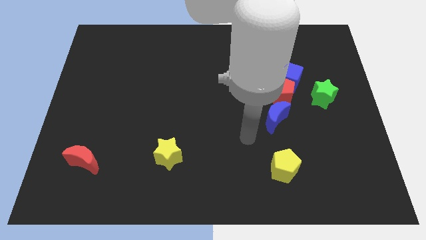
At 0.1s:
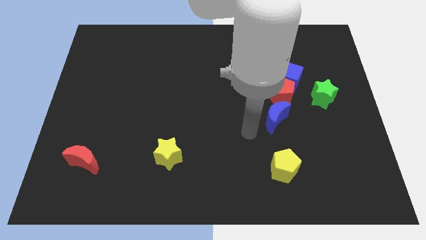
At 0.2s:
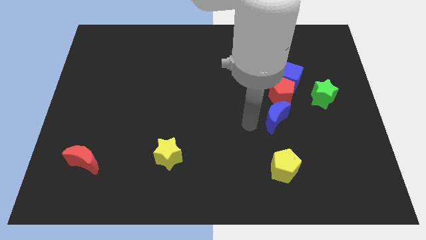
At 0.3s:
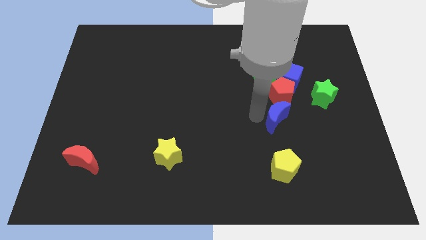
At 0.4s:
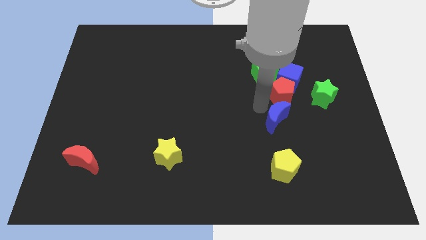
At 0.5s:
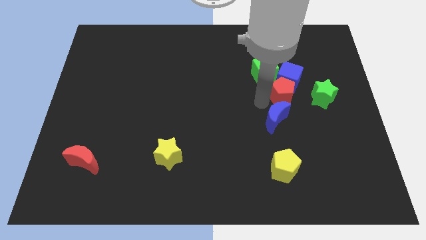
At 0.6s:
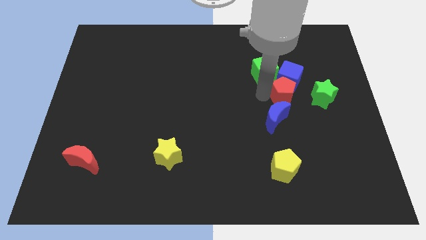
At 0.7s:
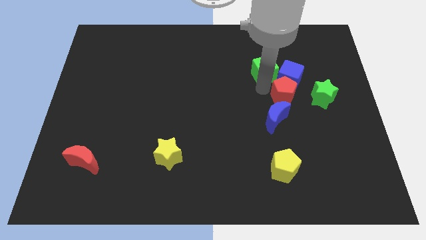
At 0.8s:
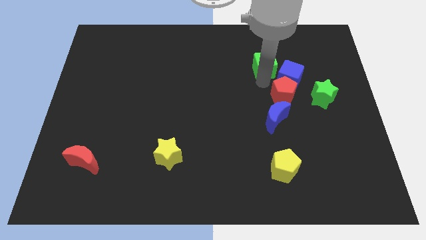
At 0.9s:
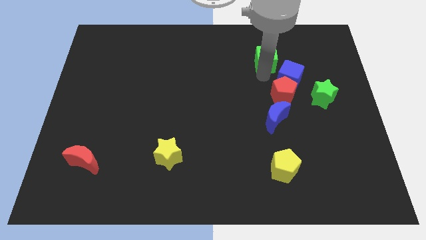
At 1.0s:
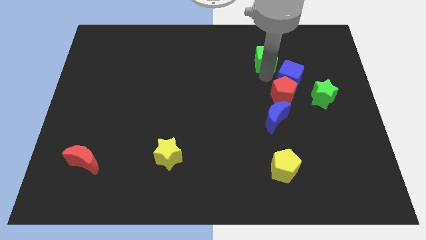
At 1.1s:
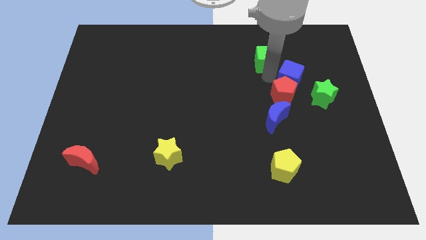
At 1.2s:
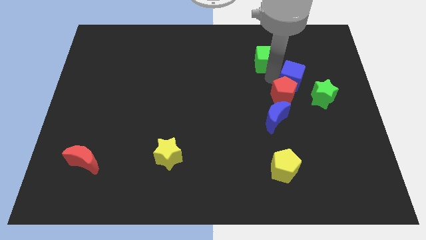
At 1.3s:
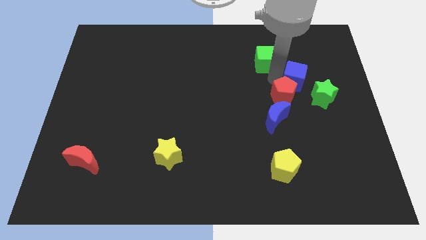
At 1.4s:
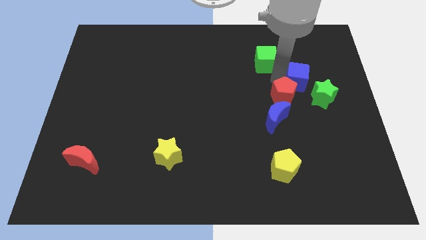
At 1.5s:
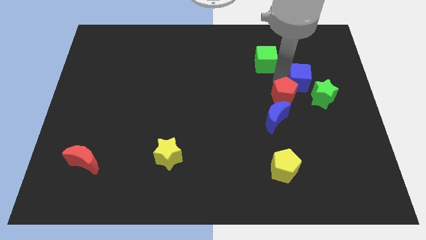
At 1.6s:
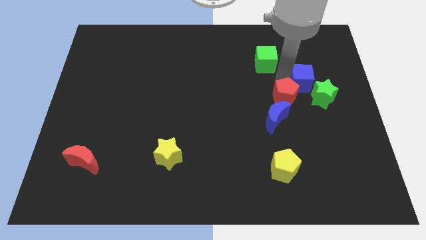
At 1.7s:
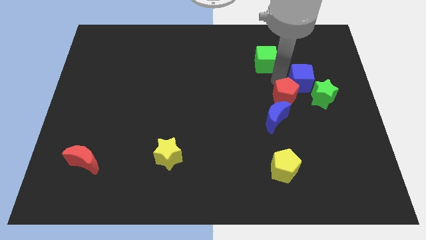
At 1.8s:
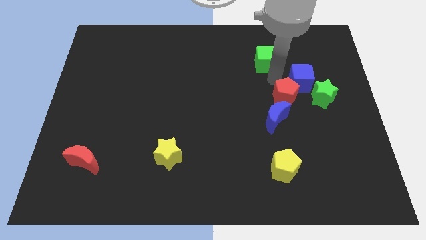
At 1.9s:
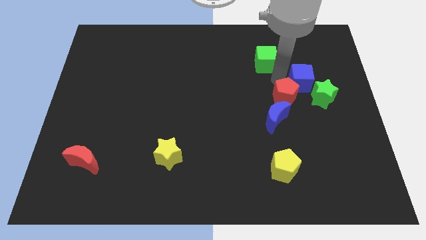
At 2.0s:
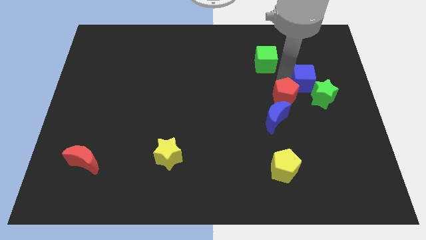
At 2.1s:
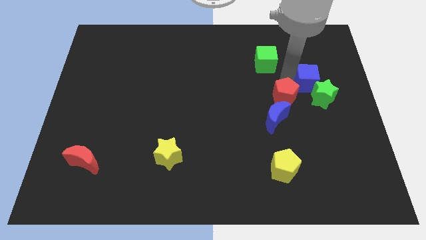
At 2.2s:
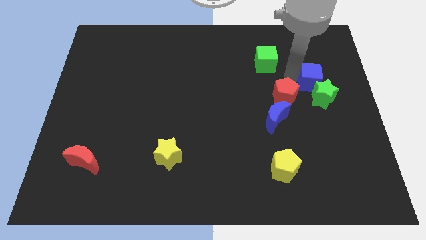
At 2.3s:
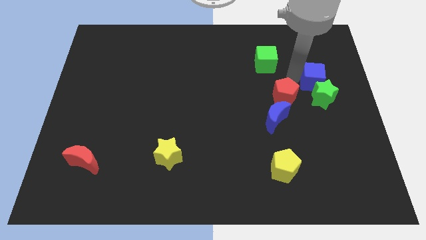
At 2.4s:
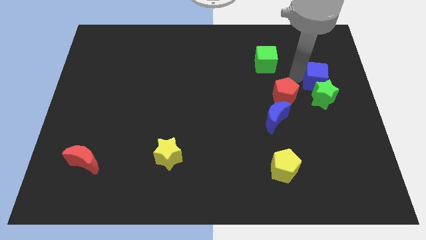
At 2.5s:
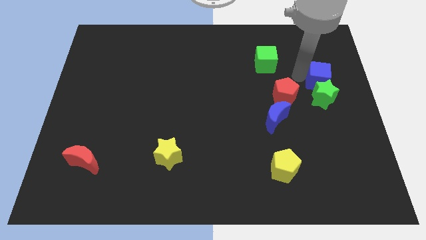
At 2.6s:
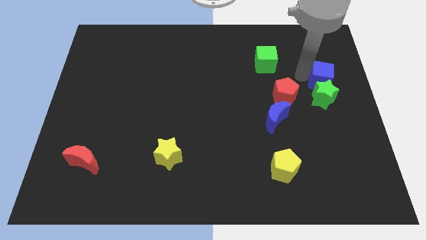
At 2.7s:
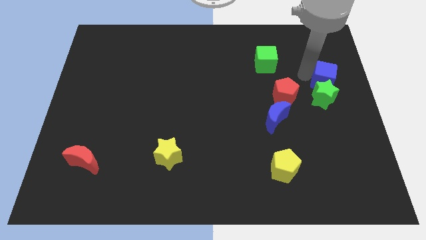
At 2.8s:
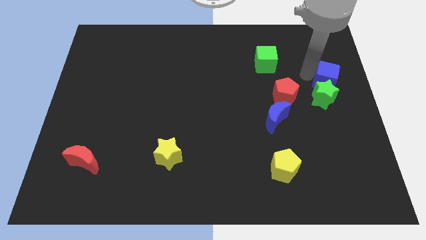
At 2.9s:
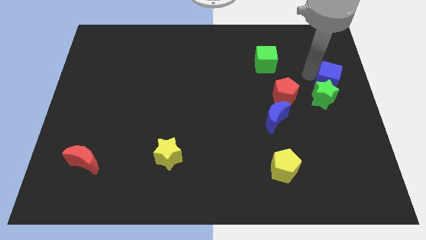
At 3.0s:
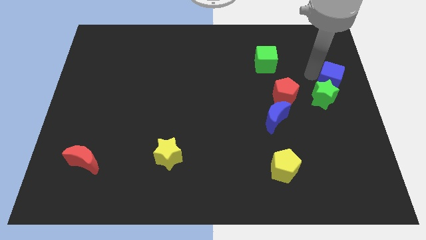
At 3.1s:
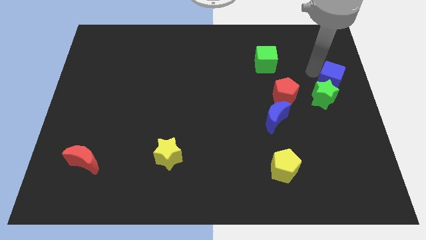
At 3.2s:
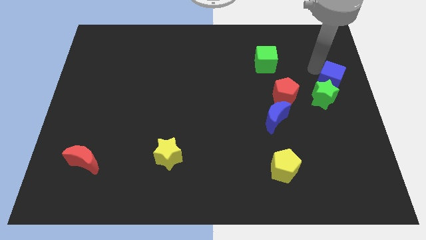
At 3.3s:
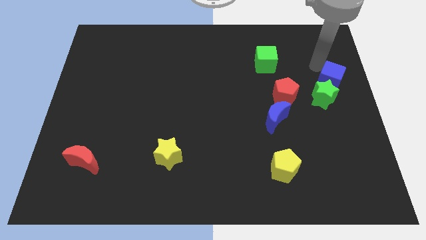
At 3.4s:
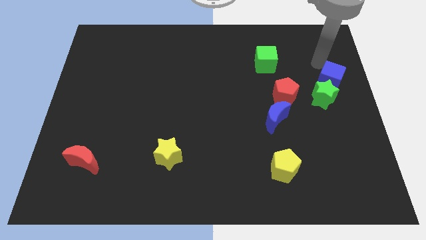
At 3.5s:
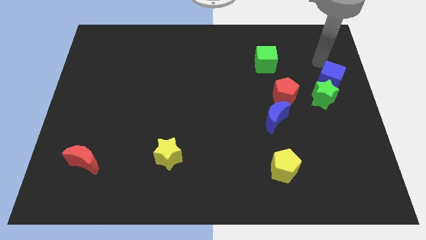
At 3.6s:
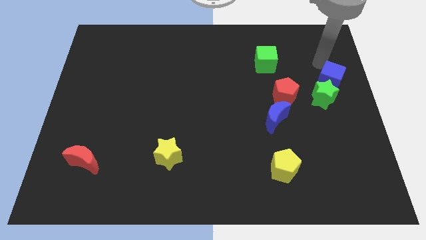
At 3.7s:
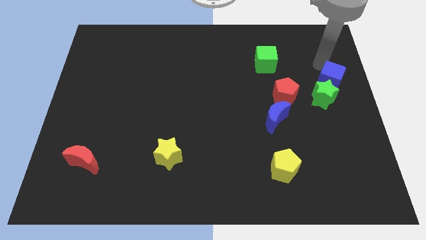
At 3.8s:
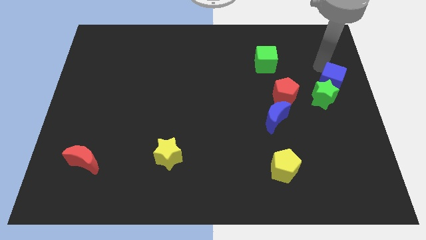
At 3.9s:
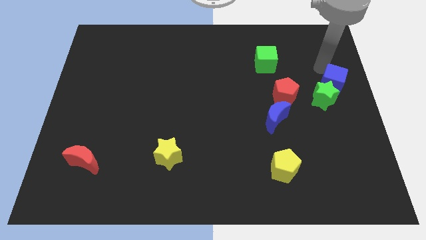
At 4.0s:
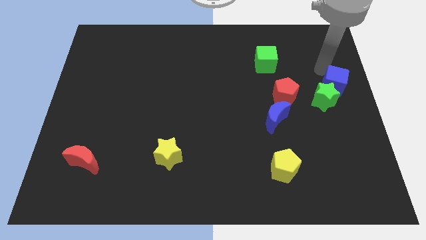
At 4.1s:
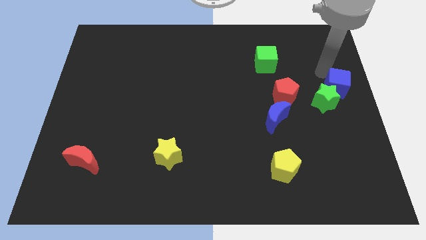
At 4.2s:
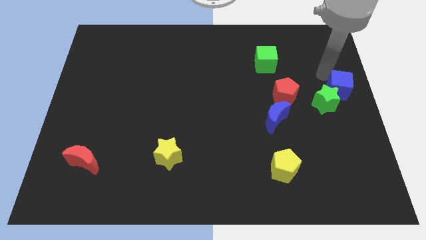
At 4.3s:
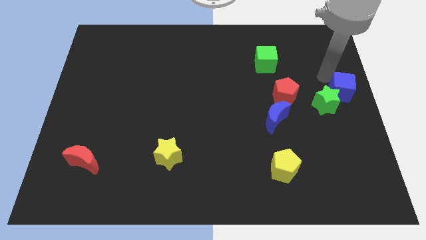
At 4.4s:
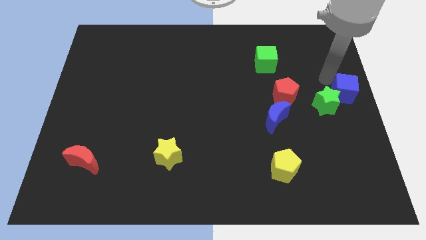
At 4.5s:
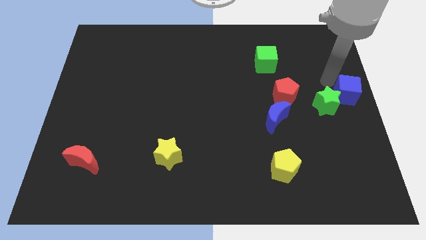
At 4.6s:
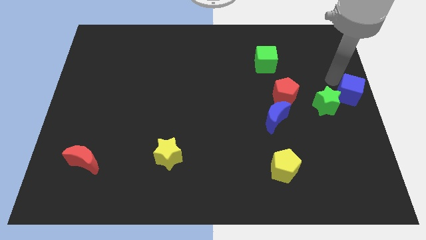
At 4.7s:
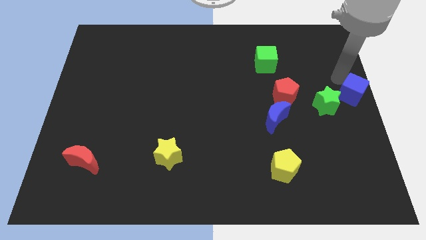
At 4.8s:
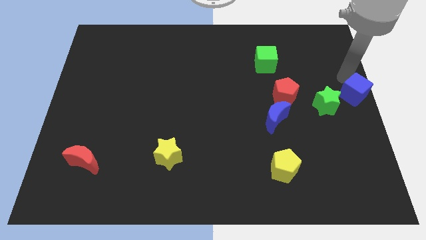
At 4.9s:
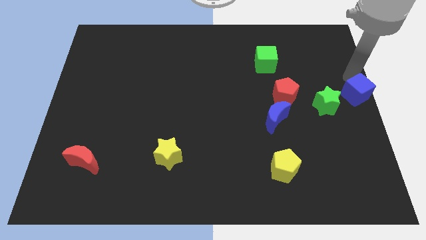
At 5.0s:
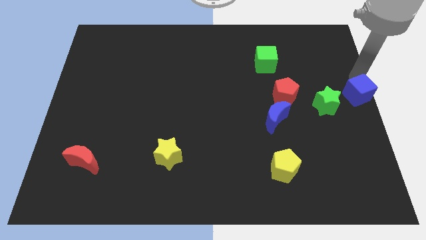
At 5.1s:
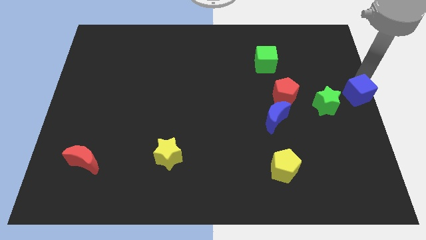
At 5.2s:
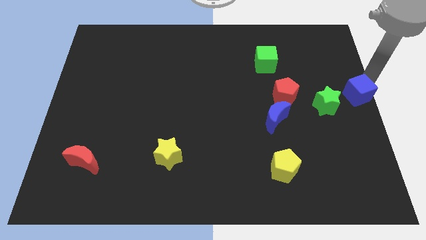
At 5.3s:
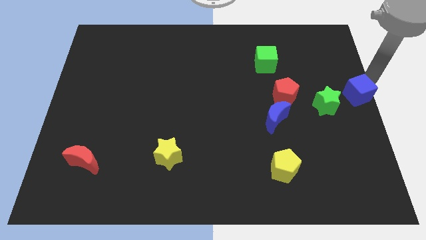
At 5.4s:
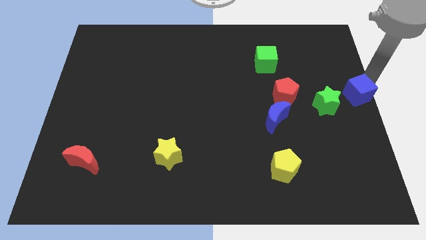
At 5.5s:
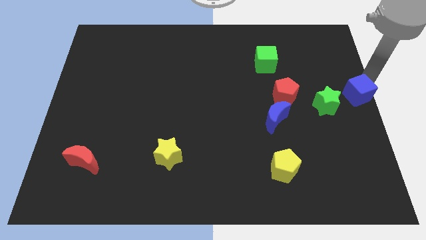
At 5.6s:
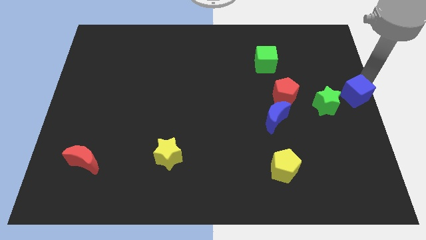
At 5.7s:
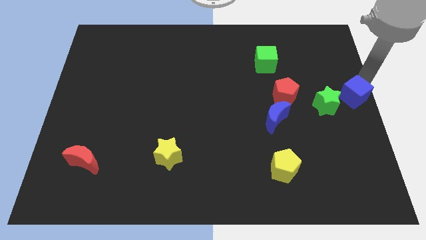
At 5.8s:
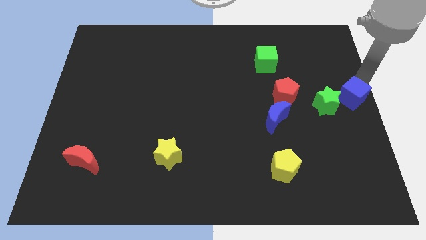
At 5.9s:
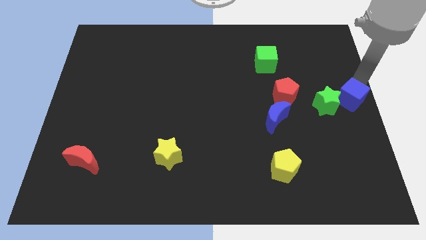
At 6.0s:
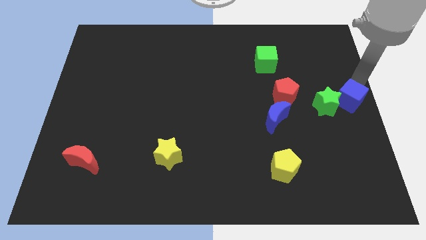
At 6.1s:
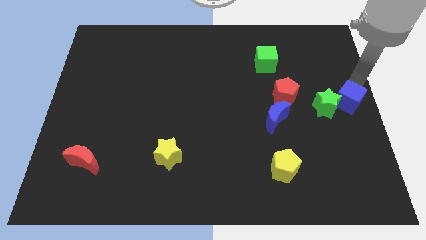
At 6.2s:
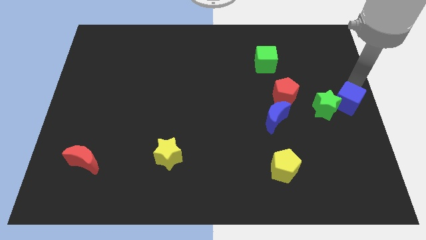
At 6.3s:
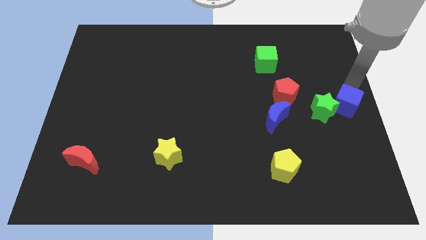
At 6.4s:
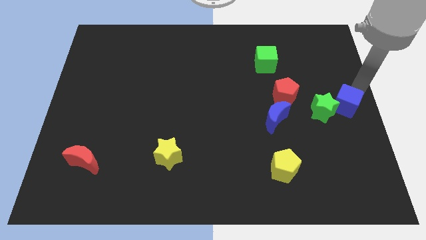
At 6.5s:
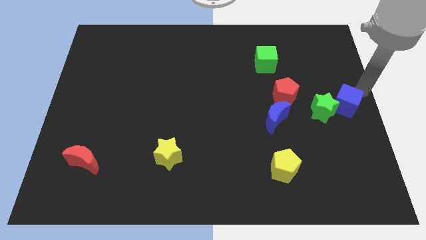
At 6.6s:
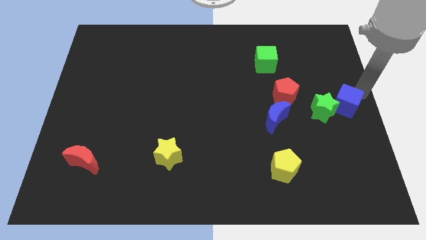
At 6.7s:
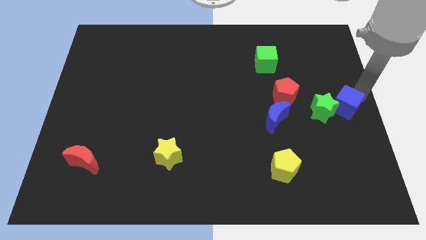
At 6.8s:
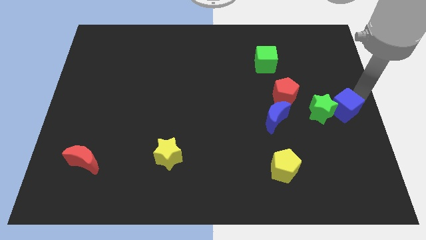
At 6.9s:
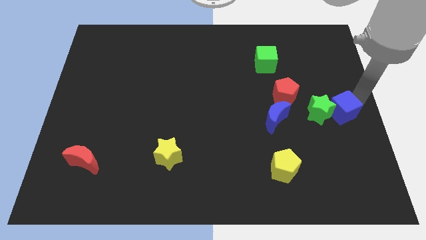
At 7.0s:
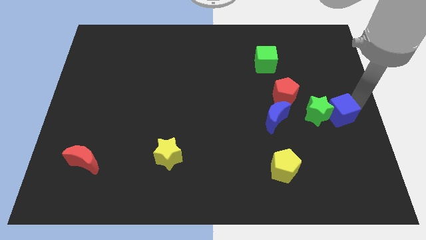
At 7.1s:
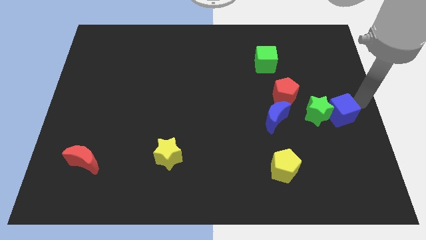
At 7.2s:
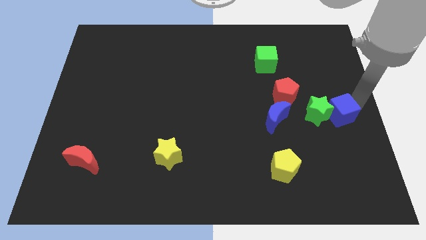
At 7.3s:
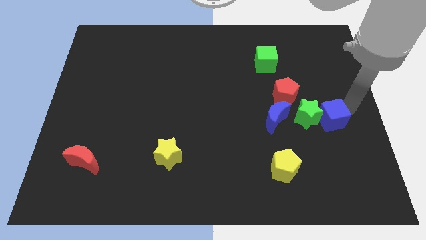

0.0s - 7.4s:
slide the blue cube downwards a little

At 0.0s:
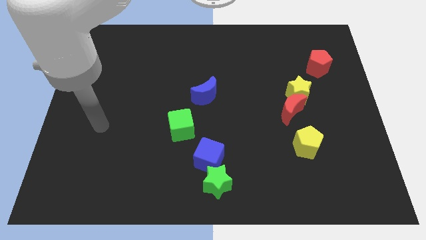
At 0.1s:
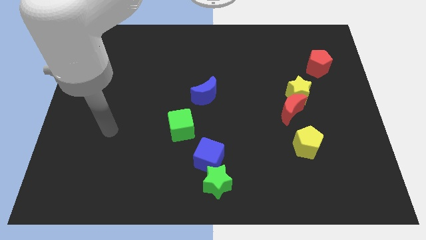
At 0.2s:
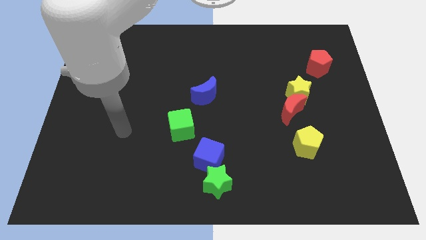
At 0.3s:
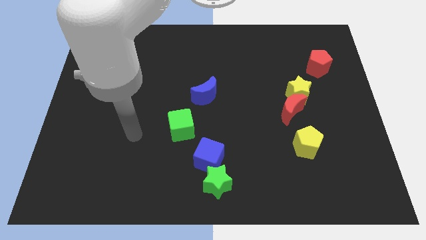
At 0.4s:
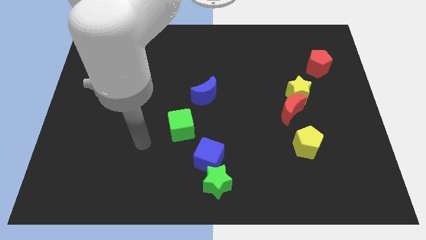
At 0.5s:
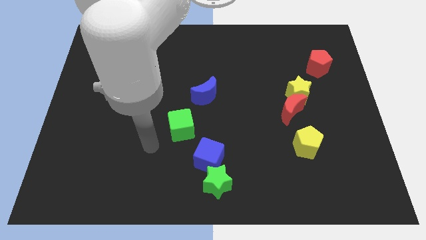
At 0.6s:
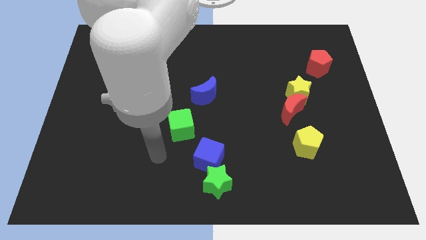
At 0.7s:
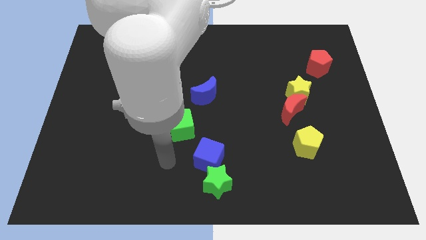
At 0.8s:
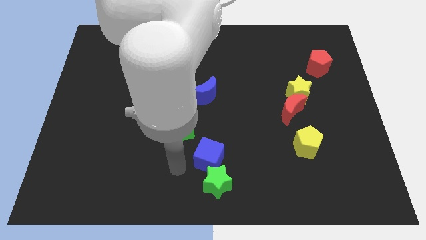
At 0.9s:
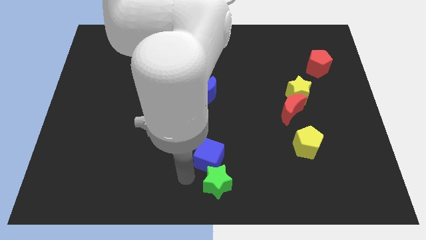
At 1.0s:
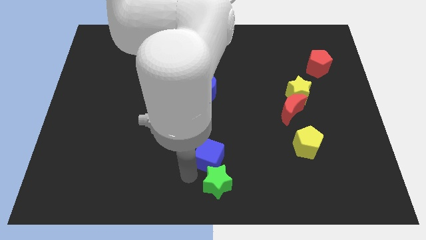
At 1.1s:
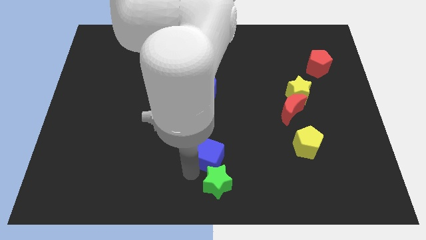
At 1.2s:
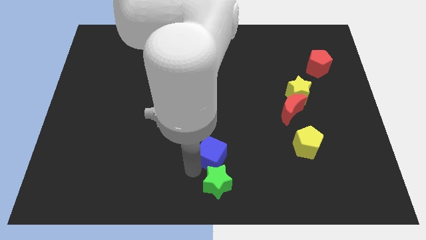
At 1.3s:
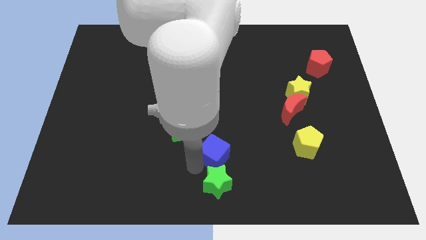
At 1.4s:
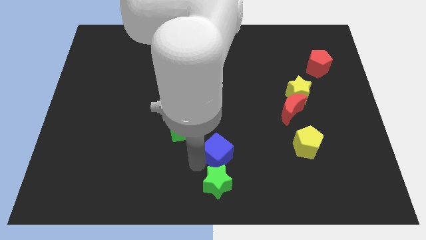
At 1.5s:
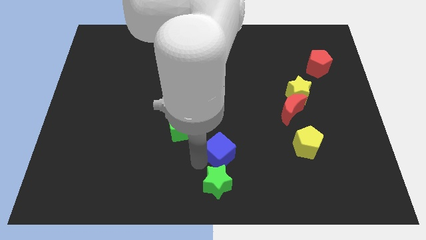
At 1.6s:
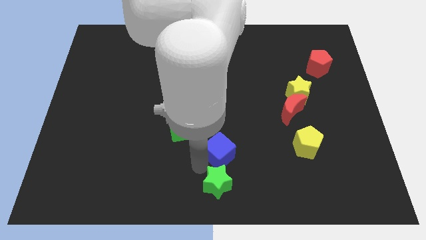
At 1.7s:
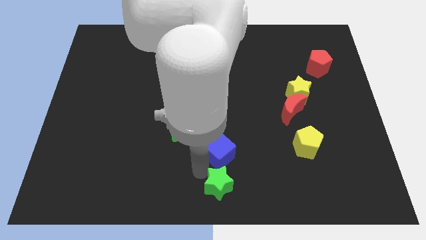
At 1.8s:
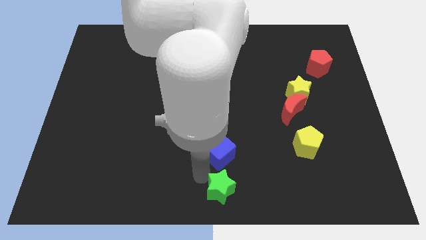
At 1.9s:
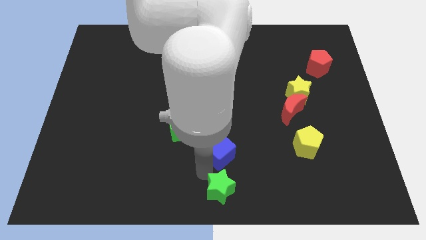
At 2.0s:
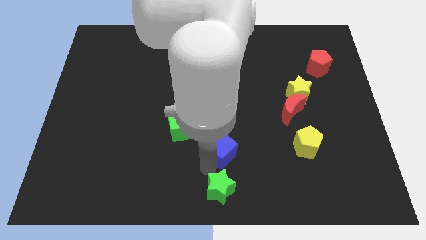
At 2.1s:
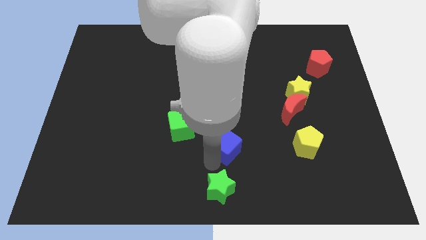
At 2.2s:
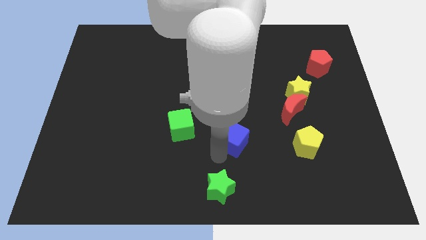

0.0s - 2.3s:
slightly slide the blue cube diagonally upwards and right
